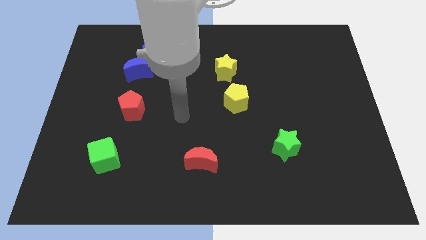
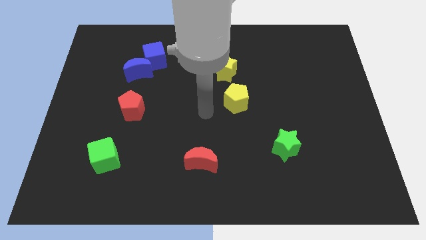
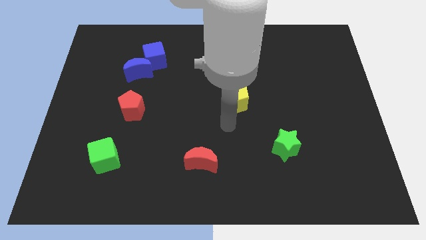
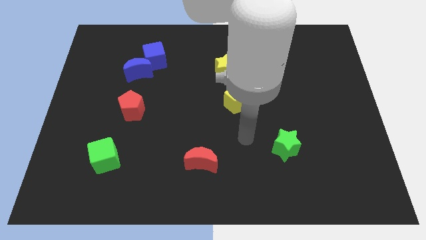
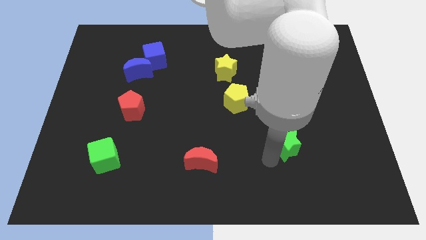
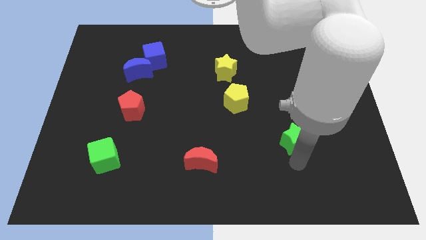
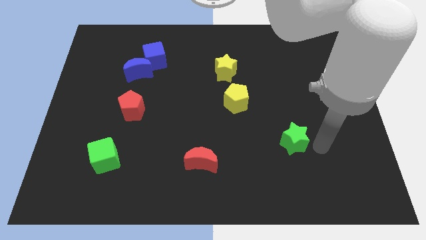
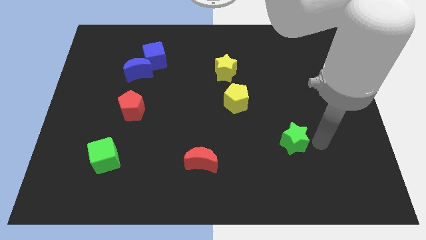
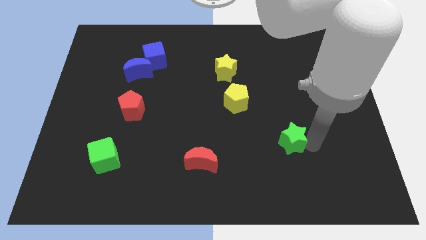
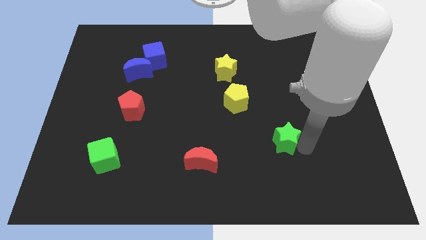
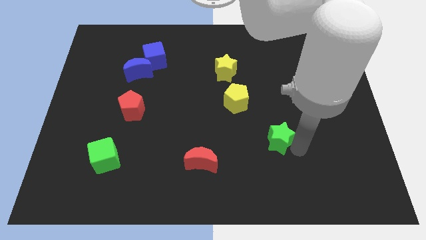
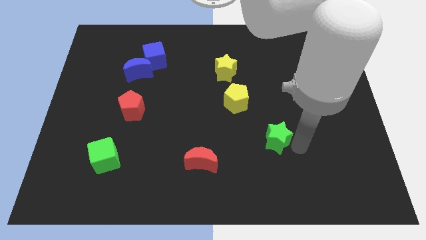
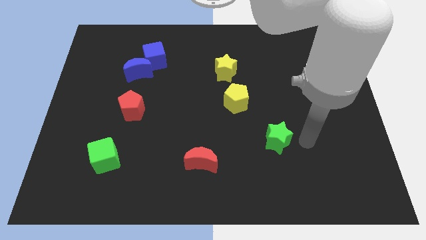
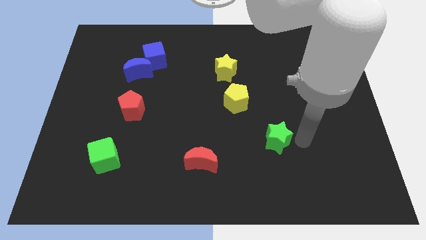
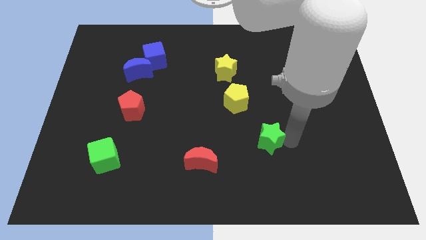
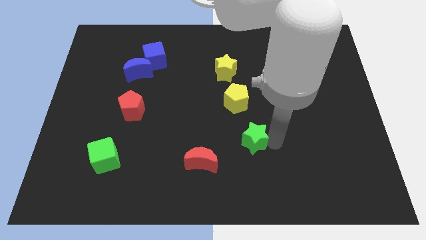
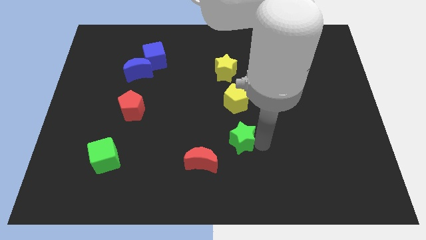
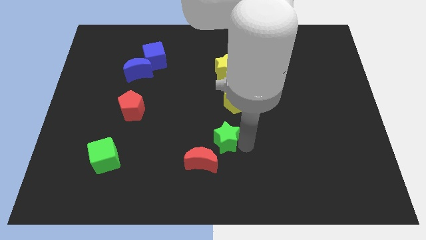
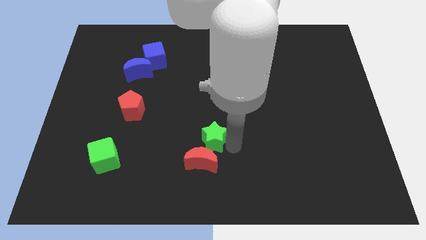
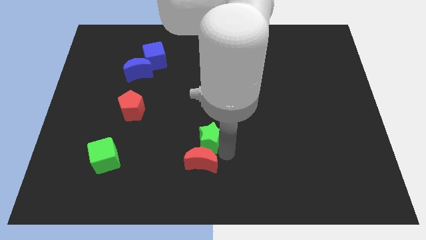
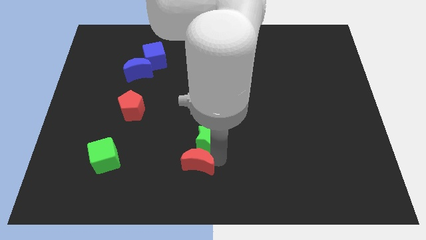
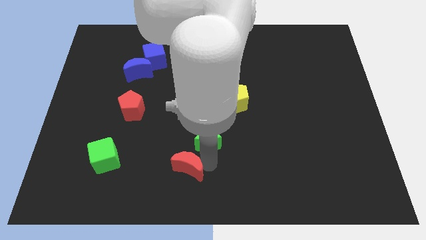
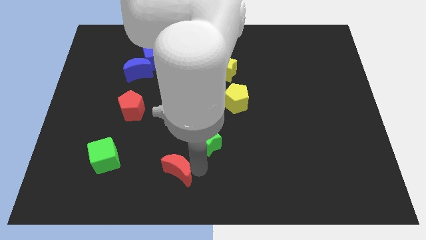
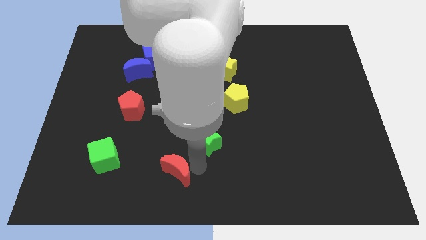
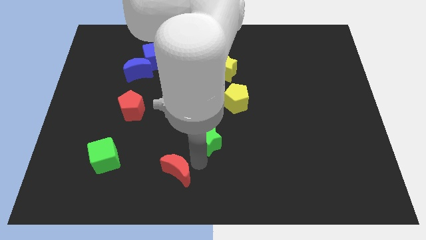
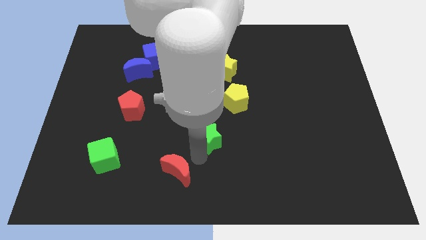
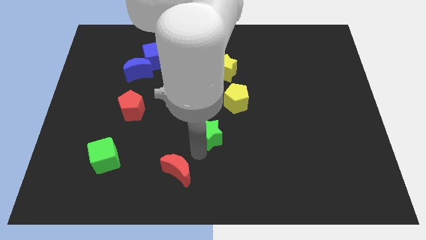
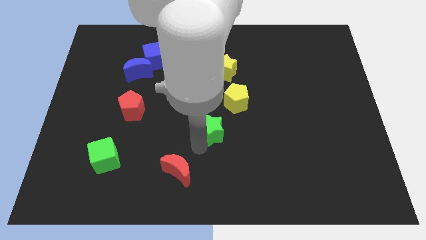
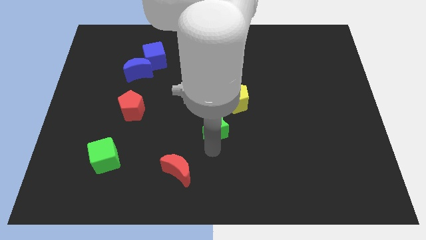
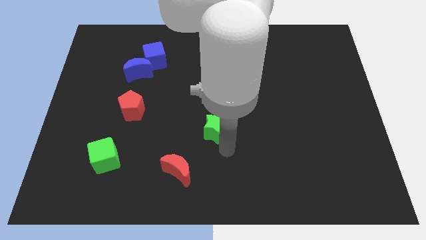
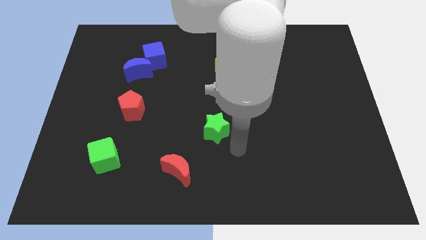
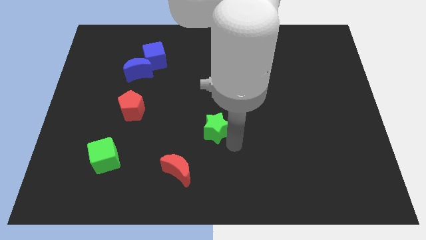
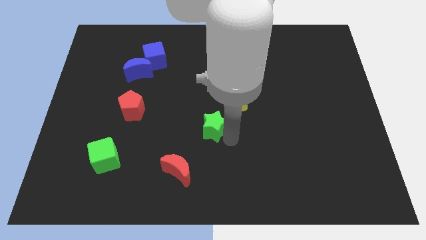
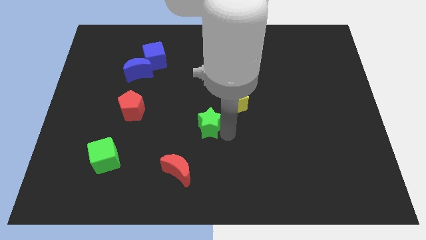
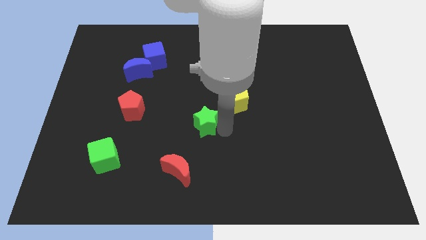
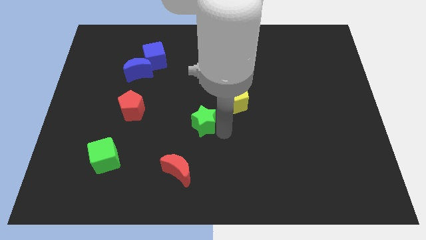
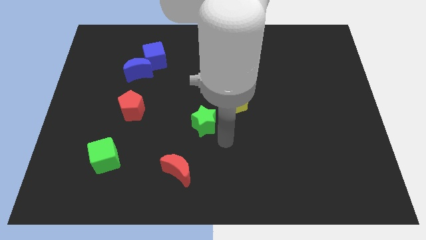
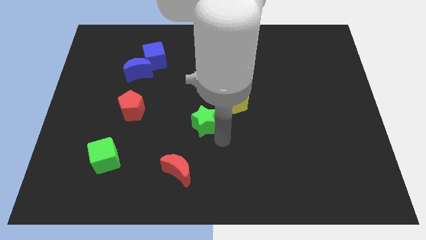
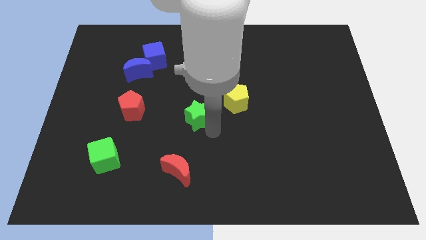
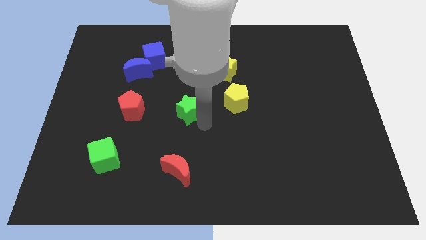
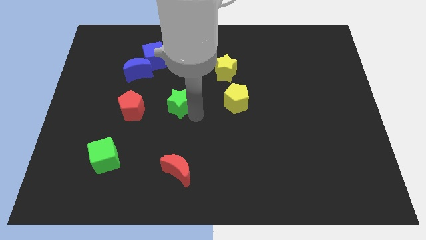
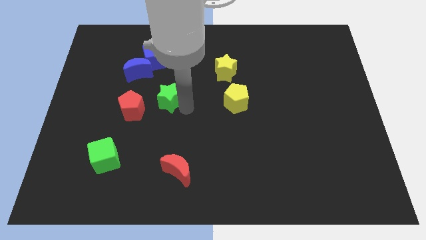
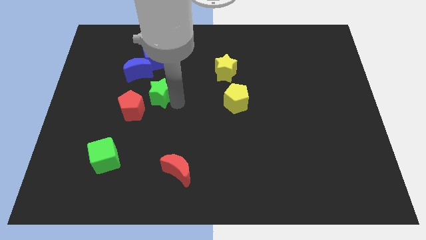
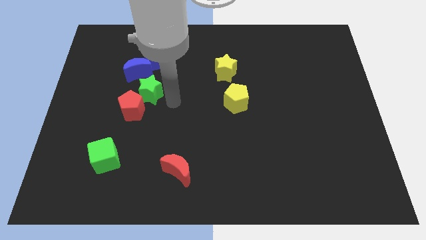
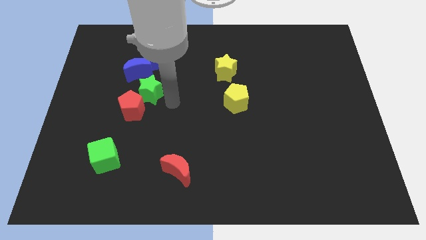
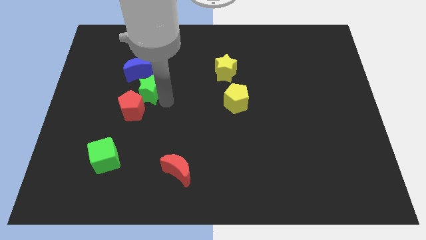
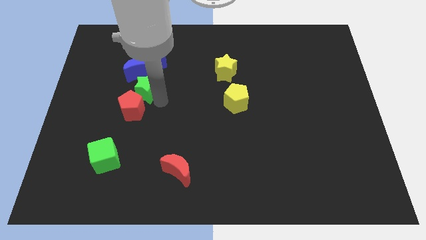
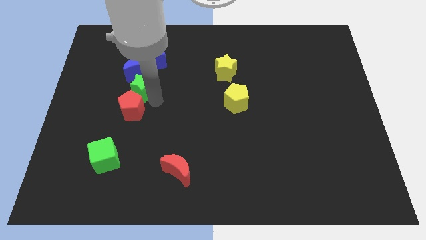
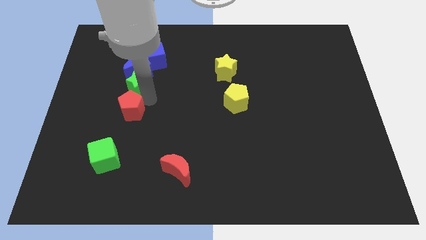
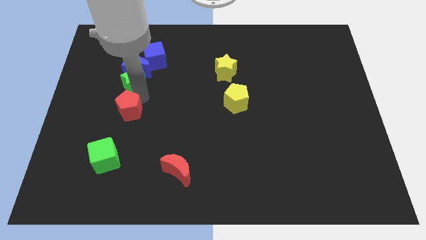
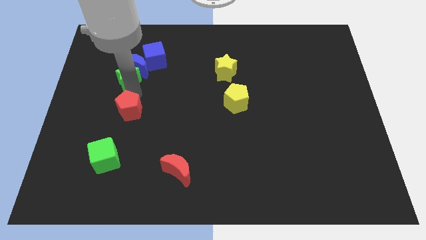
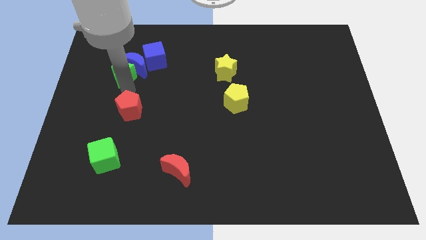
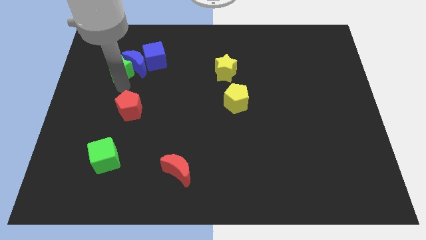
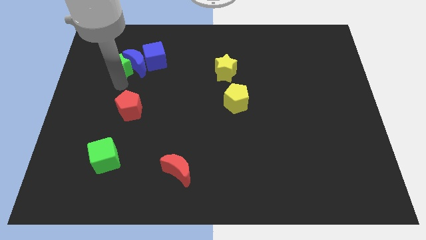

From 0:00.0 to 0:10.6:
slide the green star to the top left side of the blue moon

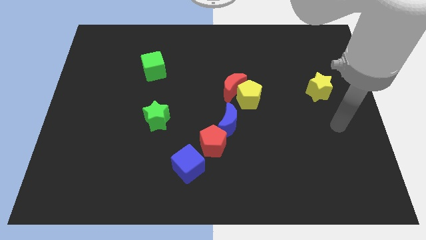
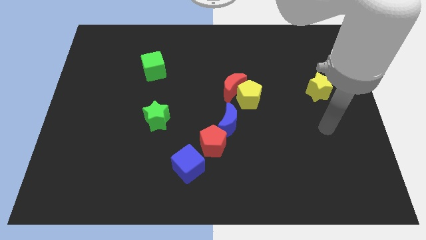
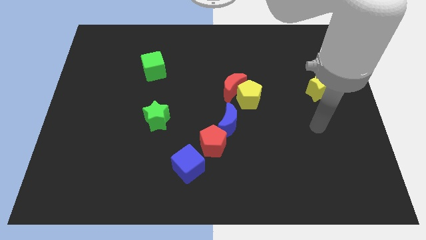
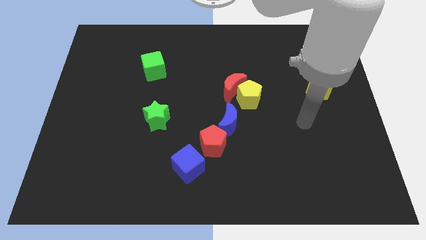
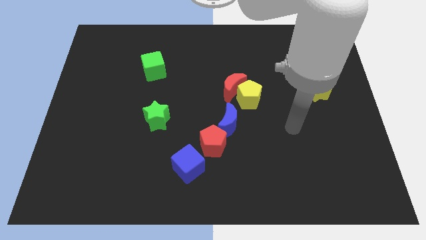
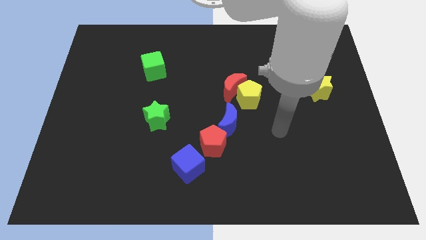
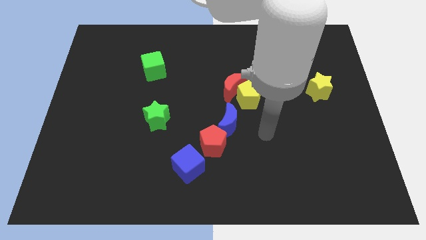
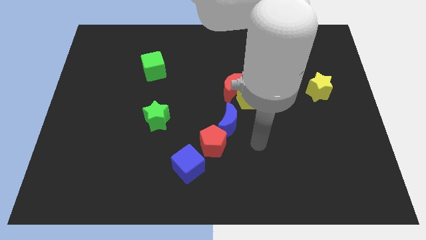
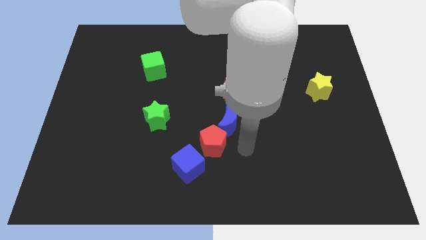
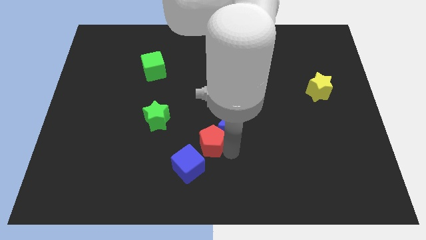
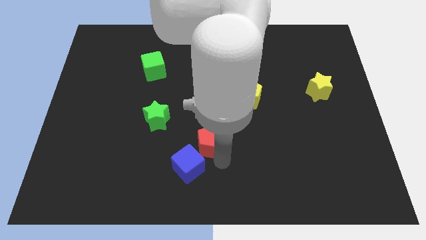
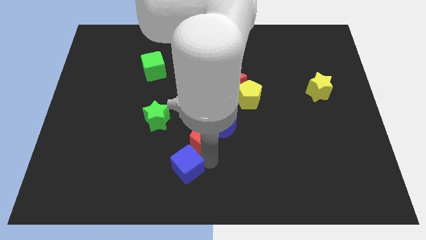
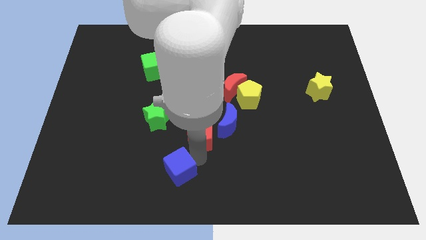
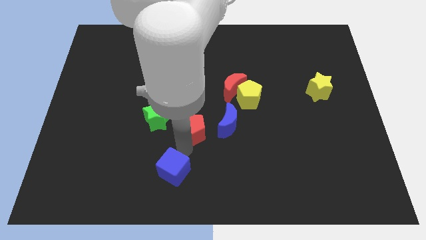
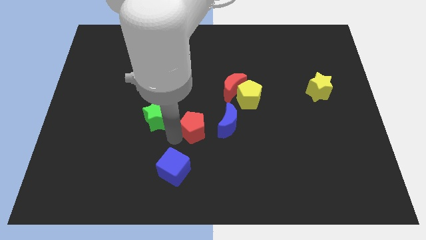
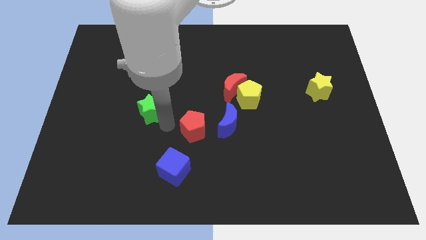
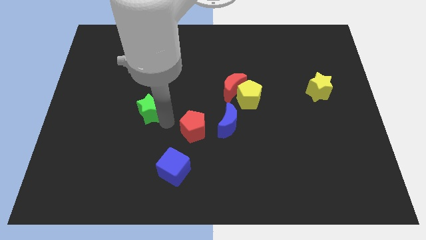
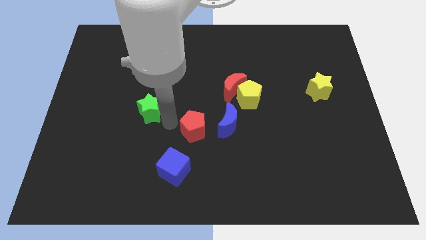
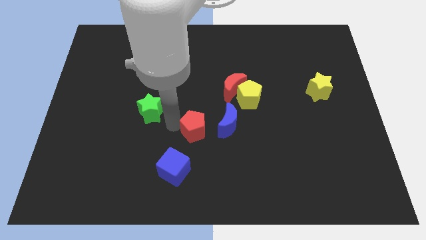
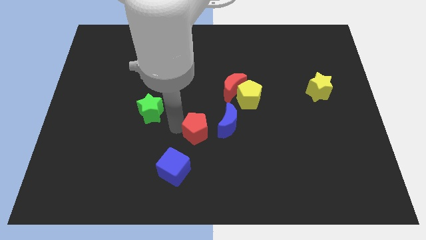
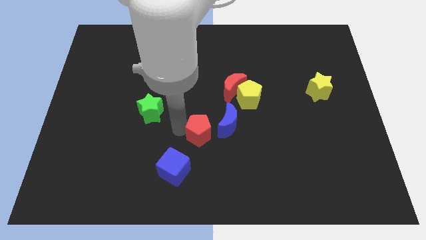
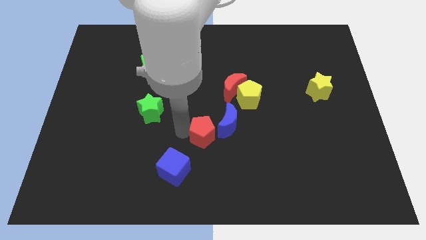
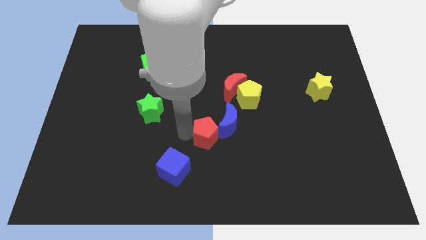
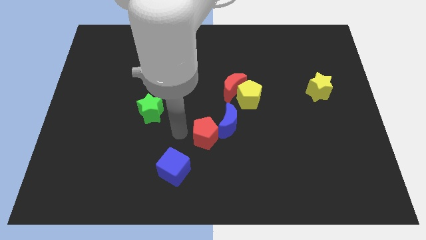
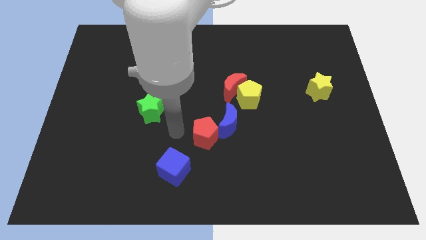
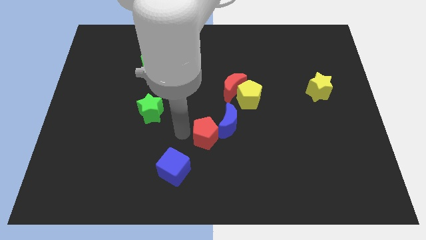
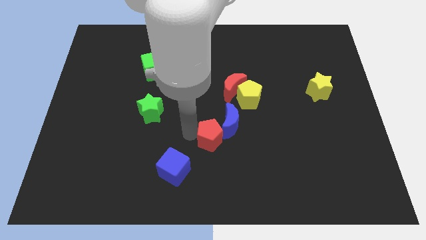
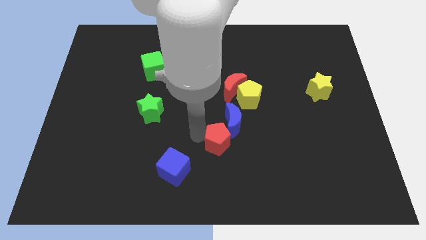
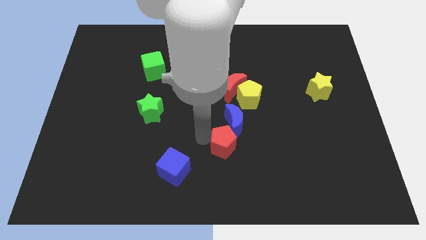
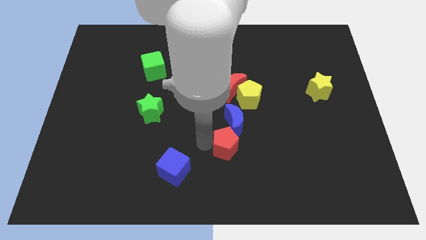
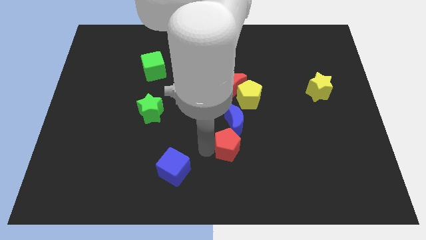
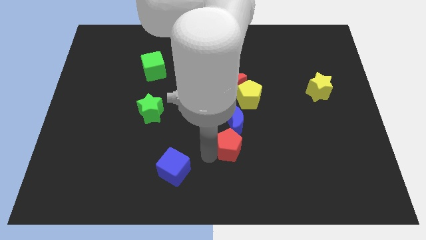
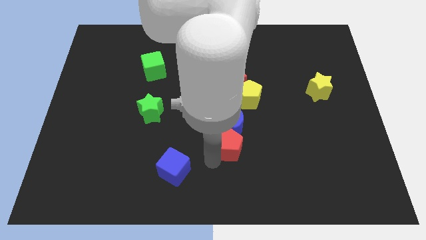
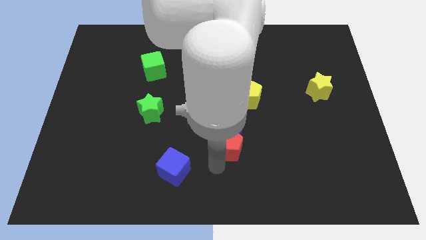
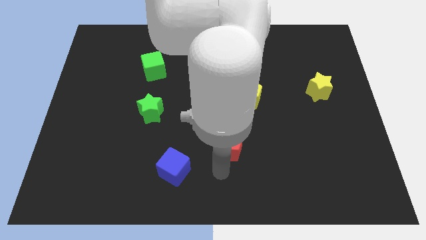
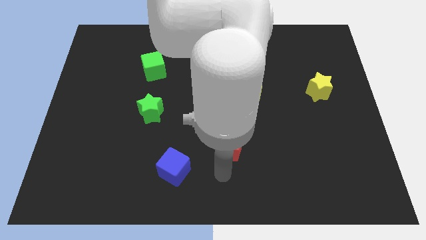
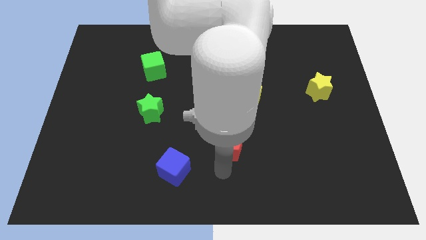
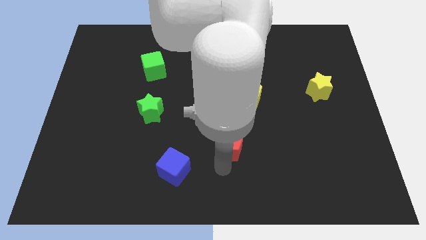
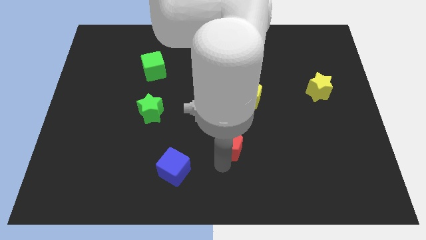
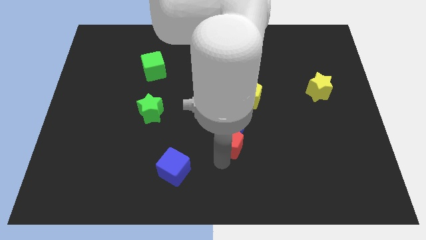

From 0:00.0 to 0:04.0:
push the red pentagon to the bottom side of the red moon
